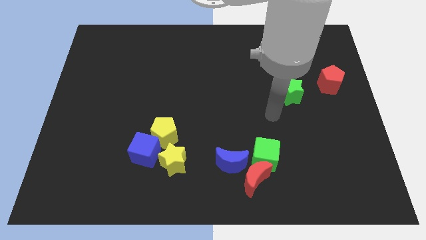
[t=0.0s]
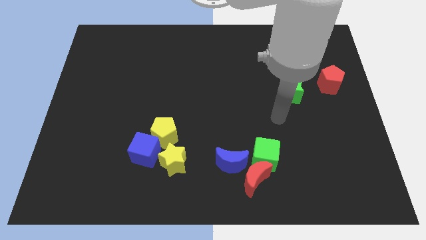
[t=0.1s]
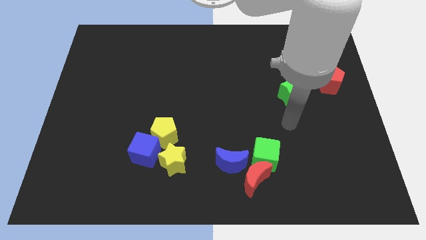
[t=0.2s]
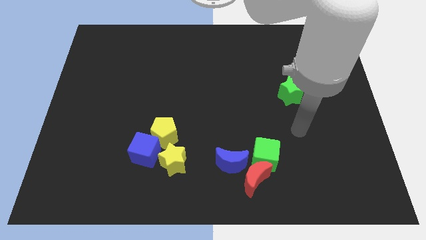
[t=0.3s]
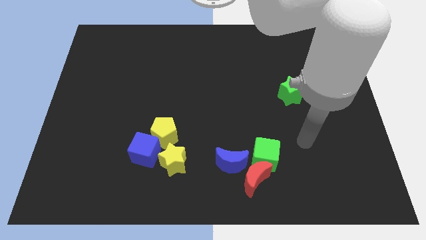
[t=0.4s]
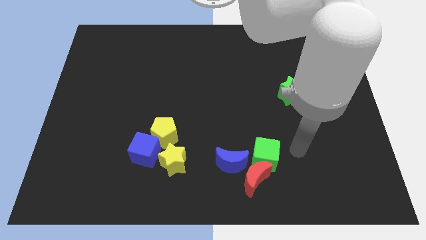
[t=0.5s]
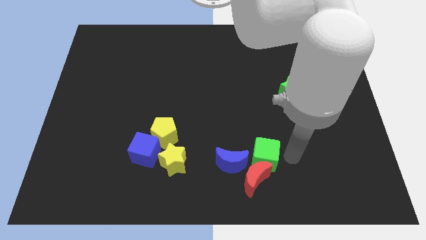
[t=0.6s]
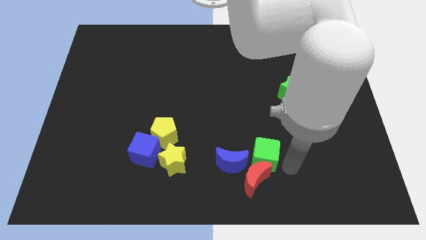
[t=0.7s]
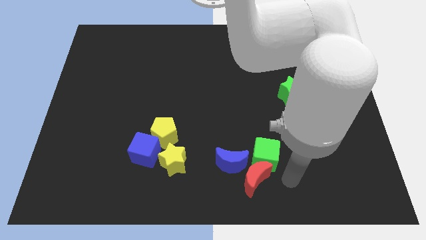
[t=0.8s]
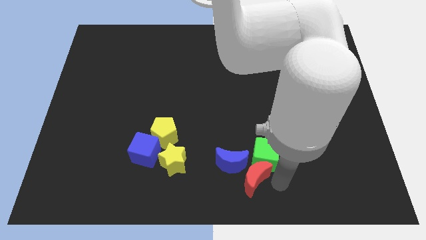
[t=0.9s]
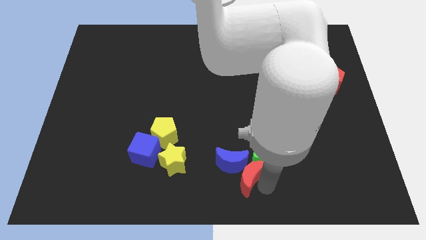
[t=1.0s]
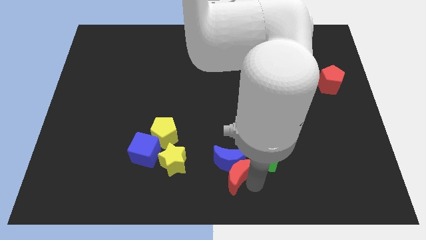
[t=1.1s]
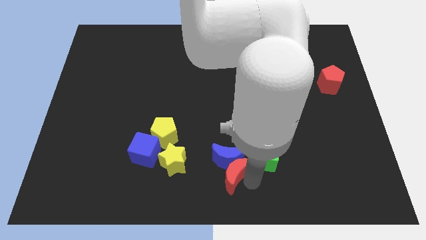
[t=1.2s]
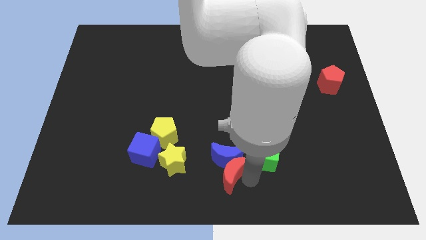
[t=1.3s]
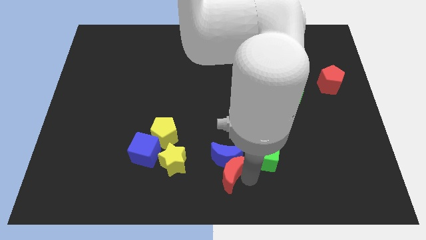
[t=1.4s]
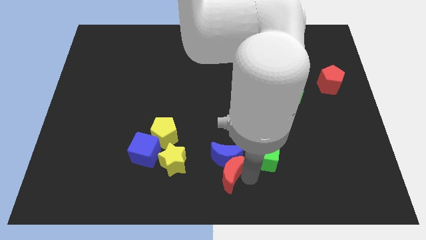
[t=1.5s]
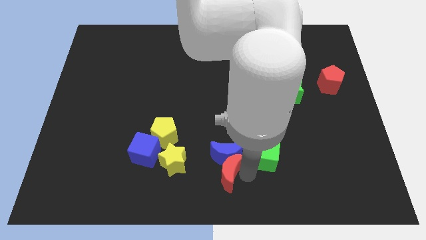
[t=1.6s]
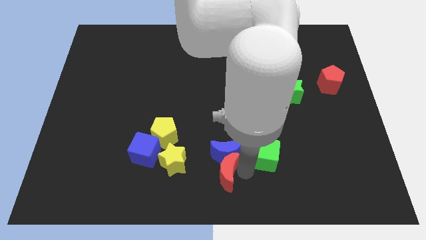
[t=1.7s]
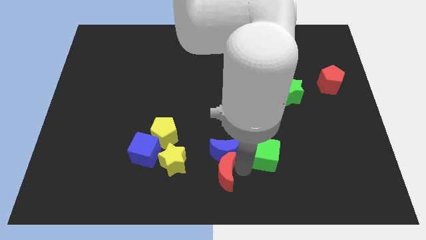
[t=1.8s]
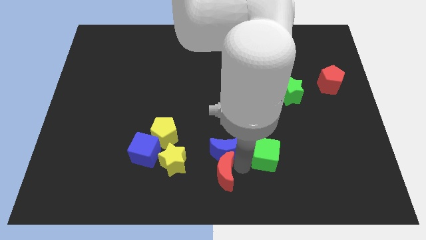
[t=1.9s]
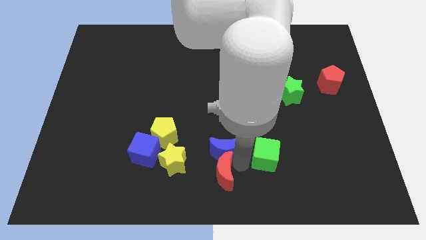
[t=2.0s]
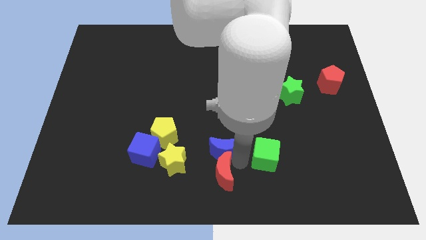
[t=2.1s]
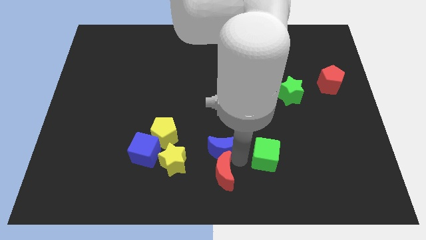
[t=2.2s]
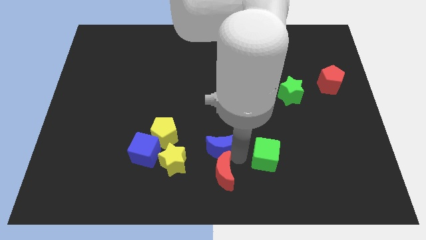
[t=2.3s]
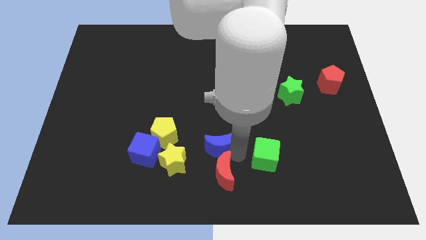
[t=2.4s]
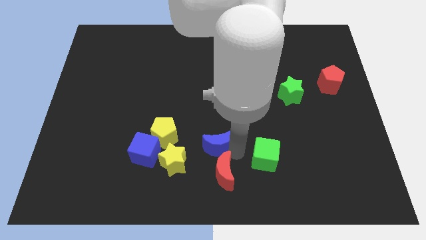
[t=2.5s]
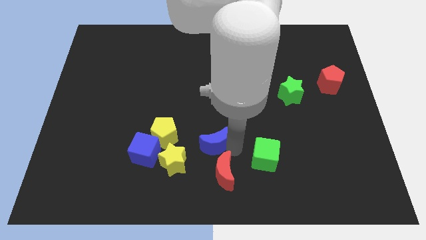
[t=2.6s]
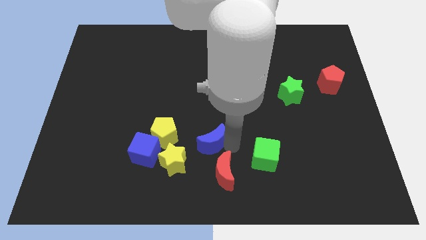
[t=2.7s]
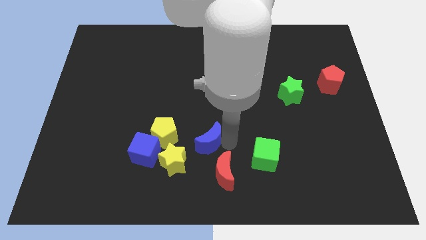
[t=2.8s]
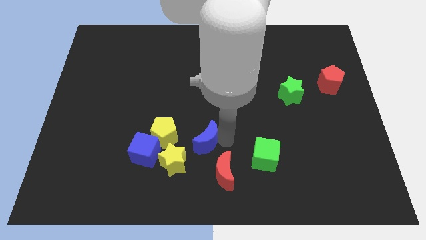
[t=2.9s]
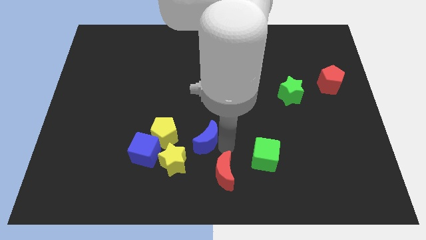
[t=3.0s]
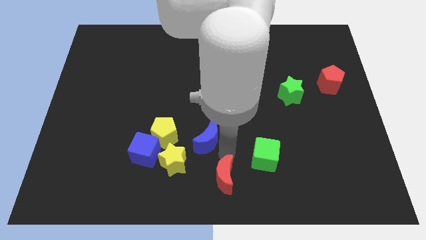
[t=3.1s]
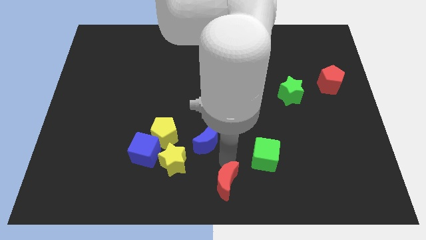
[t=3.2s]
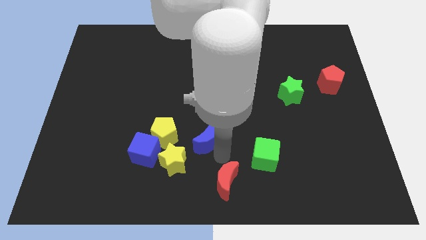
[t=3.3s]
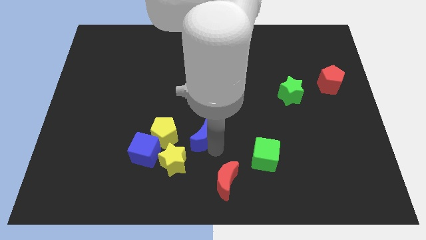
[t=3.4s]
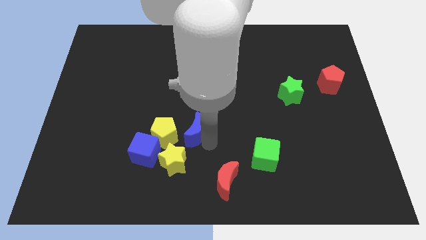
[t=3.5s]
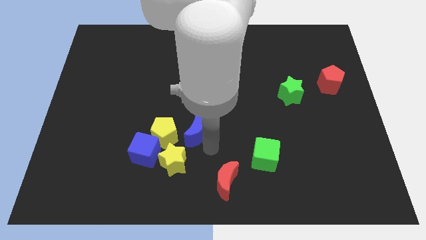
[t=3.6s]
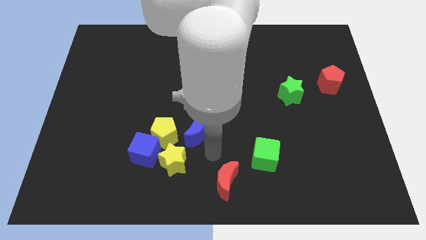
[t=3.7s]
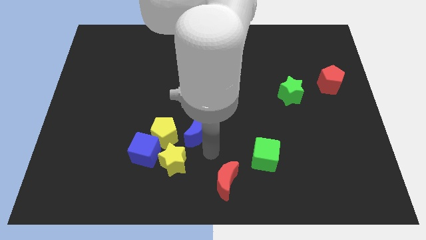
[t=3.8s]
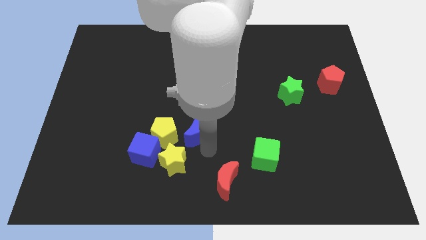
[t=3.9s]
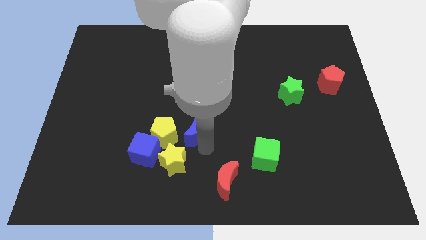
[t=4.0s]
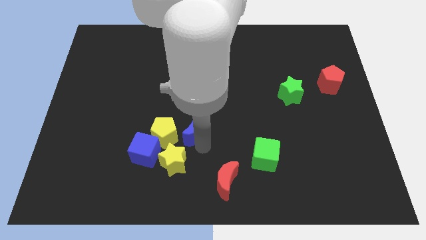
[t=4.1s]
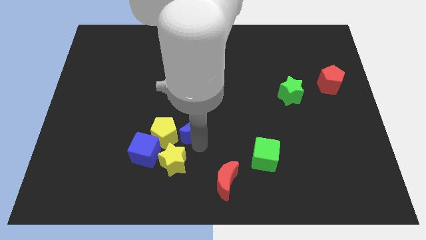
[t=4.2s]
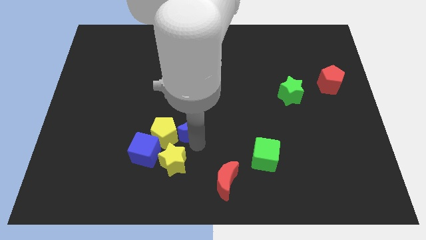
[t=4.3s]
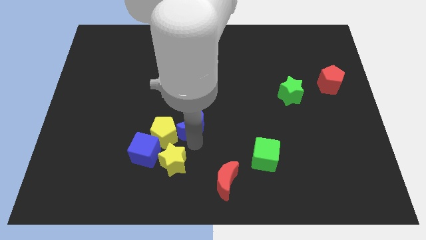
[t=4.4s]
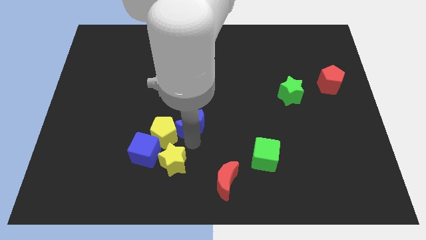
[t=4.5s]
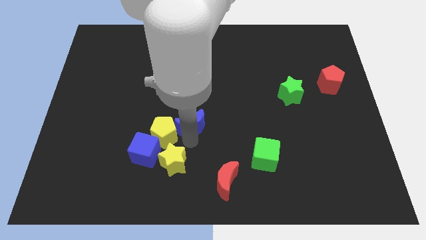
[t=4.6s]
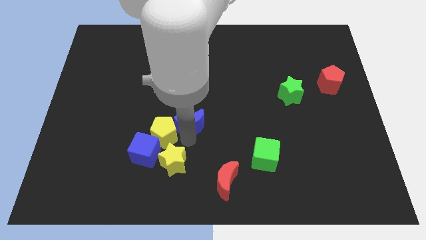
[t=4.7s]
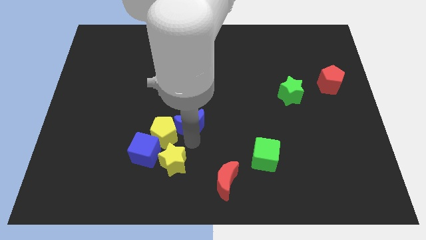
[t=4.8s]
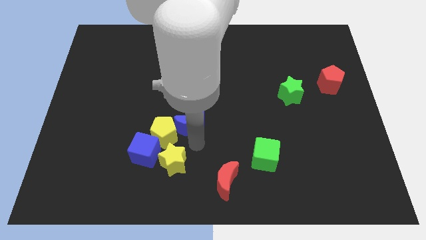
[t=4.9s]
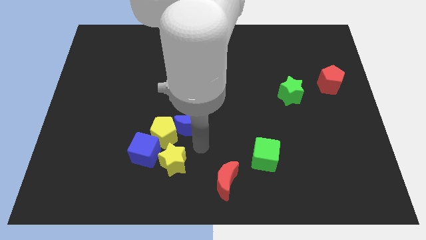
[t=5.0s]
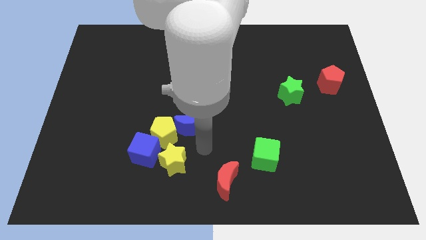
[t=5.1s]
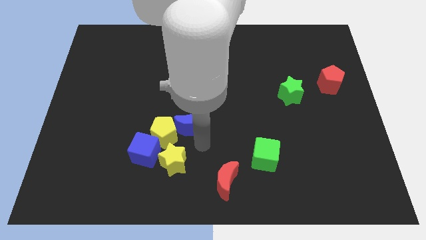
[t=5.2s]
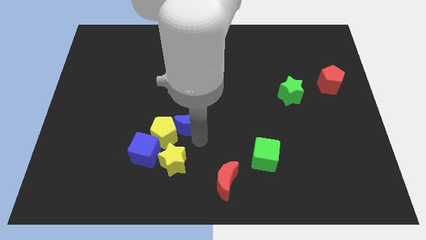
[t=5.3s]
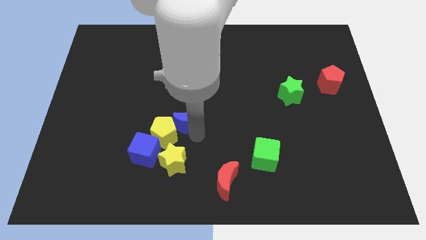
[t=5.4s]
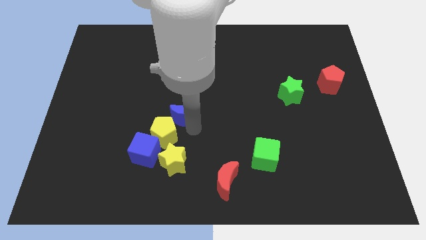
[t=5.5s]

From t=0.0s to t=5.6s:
move the blue moon to the top of the yellow pentagon

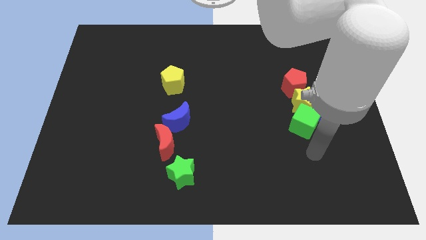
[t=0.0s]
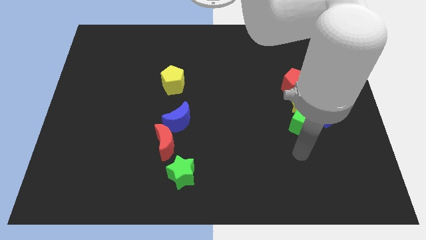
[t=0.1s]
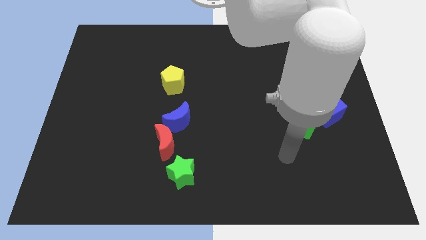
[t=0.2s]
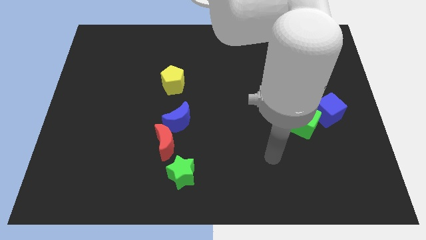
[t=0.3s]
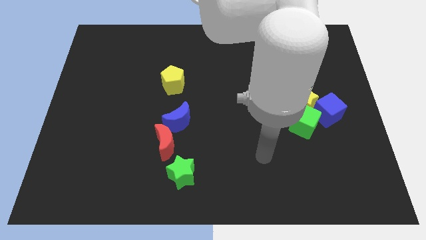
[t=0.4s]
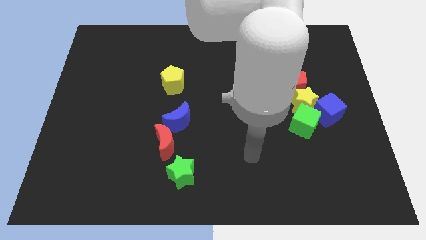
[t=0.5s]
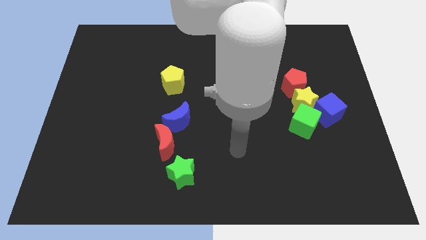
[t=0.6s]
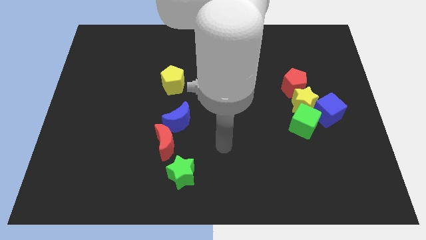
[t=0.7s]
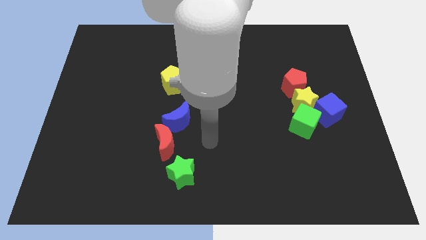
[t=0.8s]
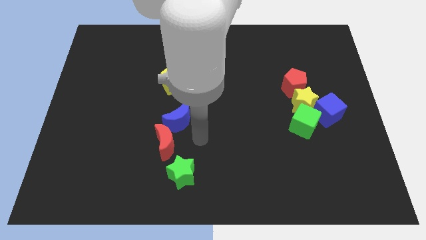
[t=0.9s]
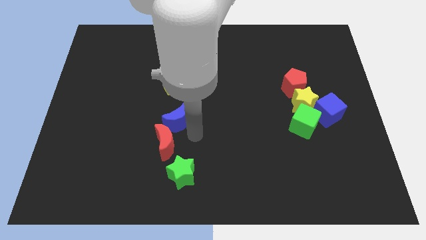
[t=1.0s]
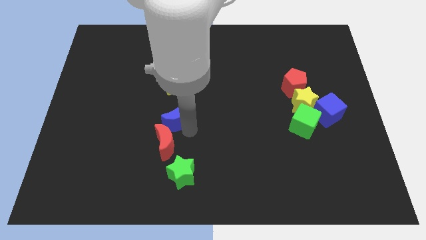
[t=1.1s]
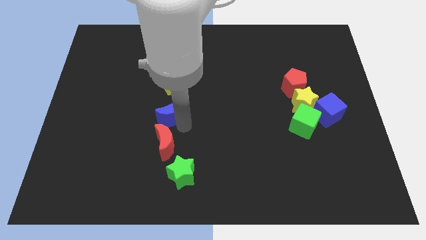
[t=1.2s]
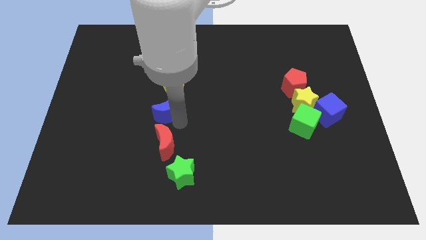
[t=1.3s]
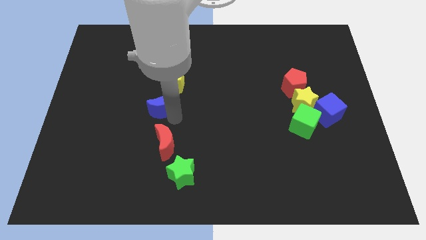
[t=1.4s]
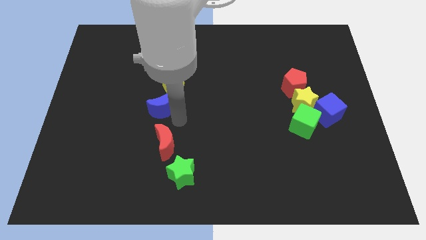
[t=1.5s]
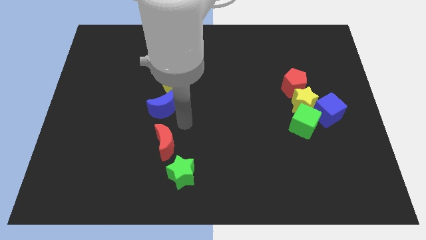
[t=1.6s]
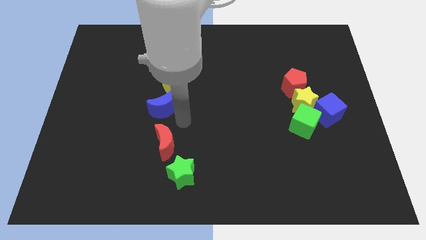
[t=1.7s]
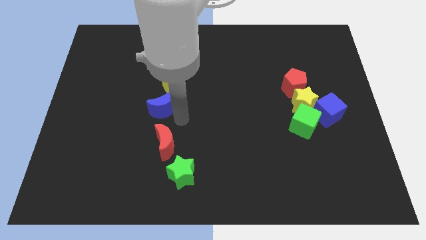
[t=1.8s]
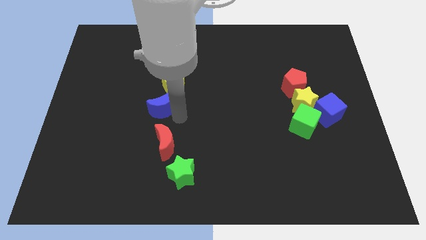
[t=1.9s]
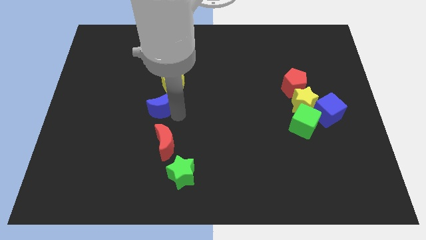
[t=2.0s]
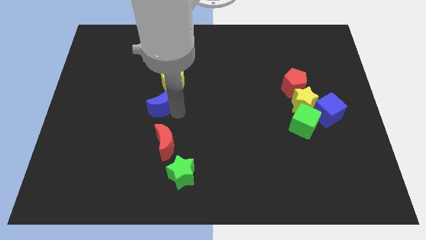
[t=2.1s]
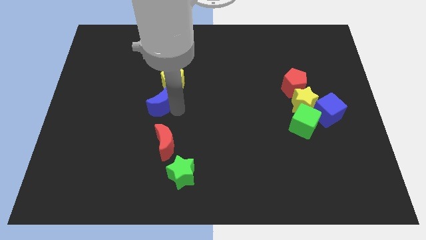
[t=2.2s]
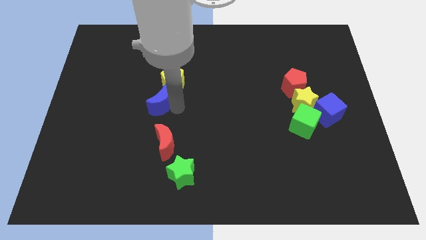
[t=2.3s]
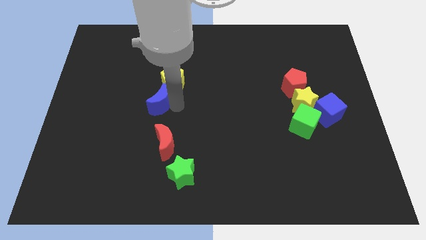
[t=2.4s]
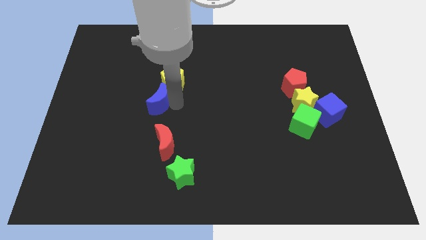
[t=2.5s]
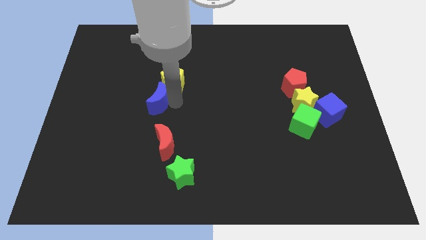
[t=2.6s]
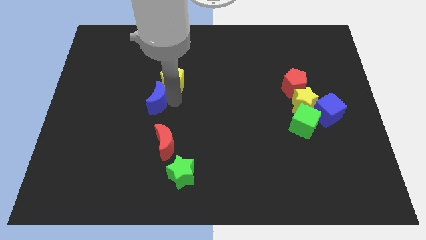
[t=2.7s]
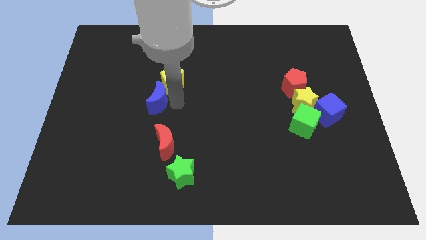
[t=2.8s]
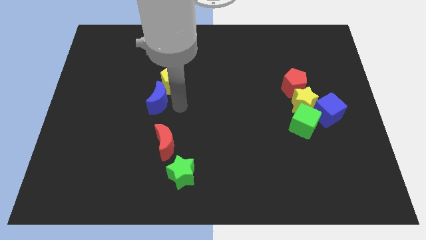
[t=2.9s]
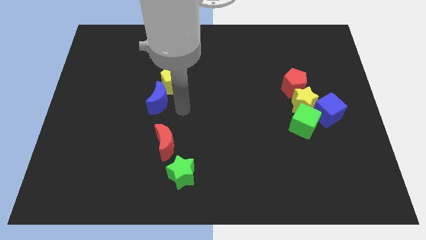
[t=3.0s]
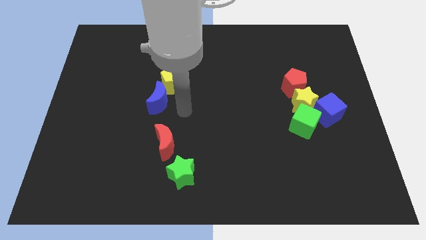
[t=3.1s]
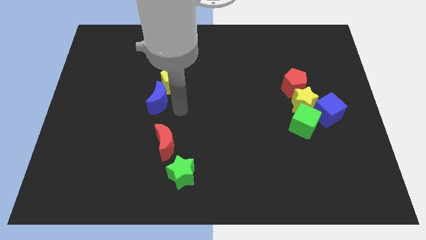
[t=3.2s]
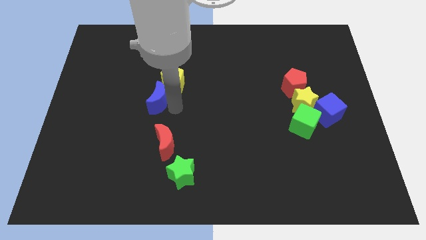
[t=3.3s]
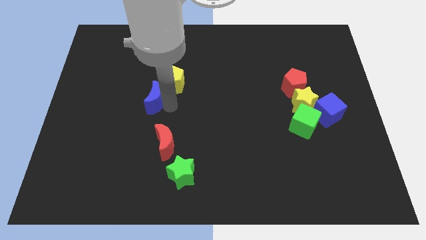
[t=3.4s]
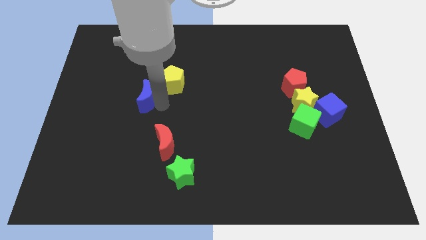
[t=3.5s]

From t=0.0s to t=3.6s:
slide the blue moon to the left of the yellow pentagon
